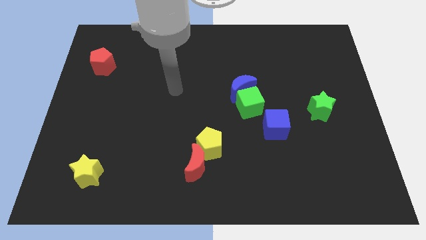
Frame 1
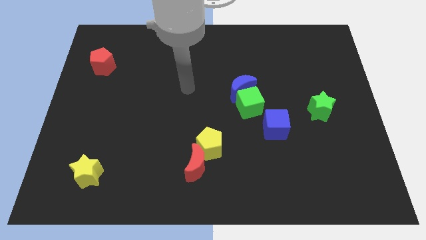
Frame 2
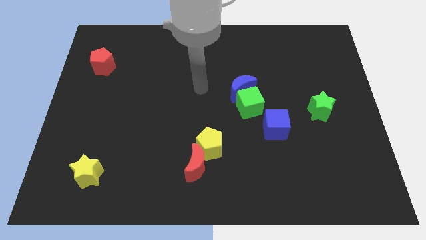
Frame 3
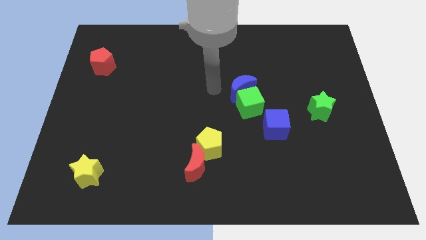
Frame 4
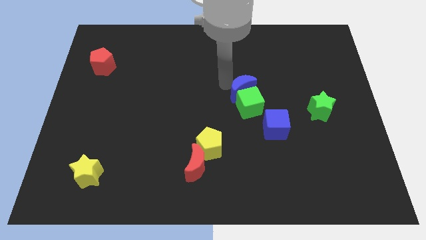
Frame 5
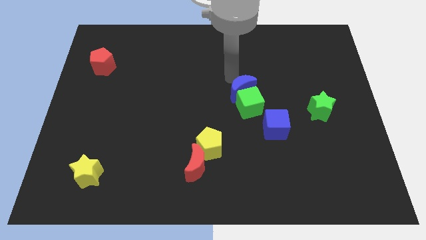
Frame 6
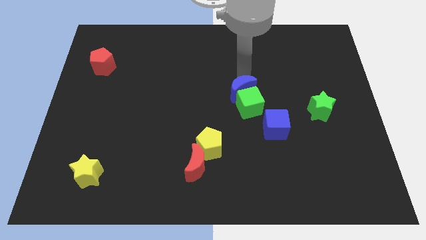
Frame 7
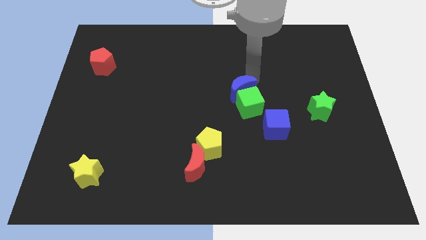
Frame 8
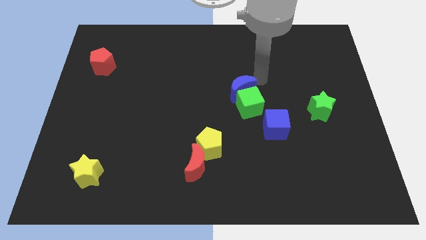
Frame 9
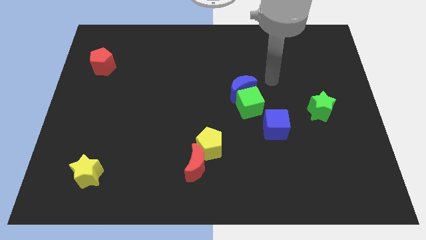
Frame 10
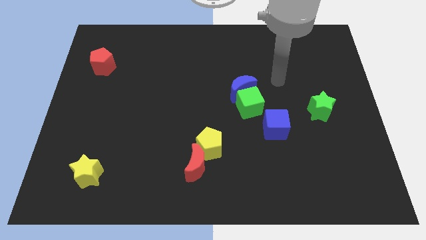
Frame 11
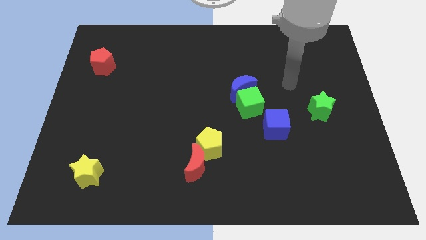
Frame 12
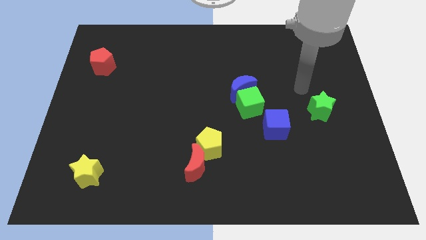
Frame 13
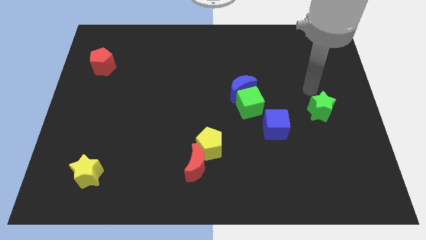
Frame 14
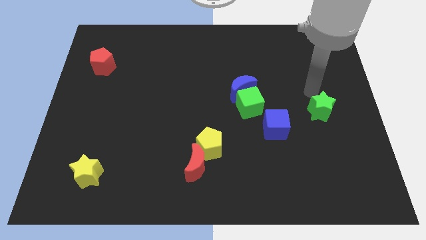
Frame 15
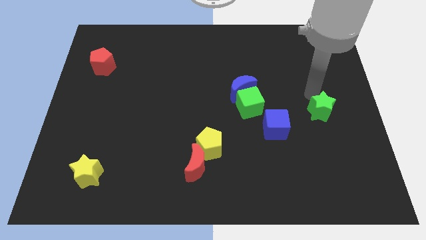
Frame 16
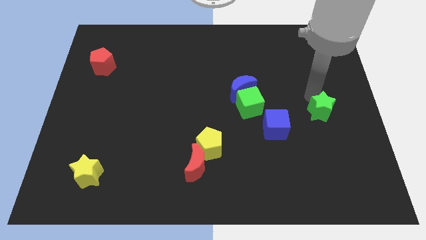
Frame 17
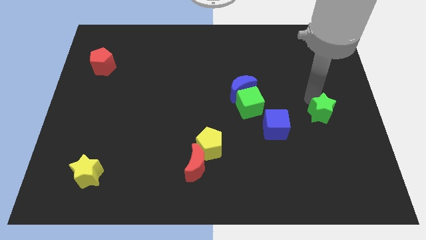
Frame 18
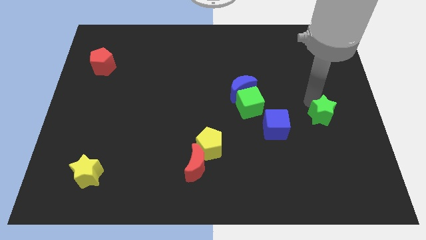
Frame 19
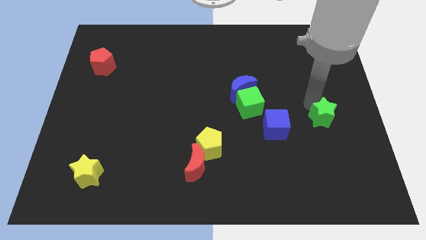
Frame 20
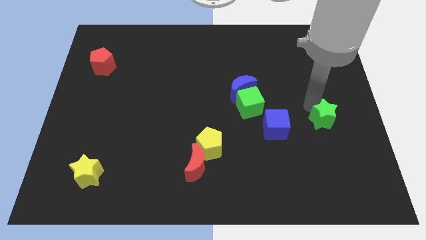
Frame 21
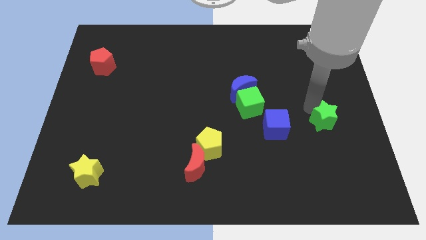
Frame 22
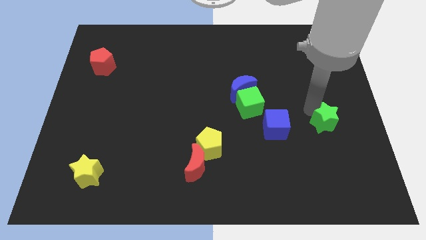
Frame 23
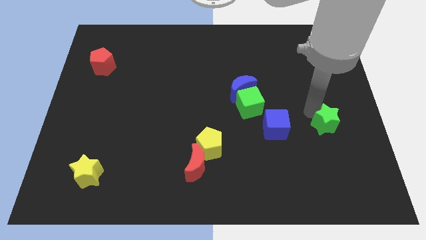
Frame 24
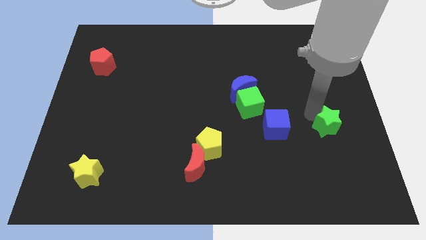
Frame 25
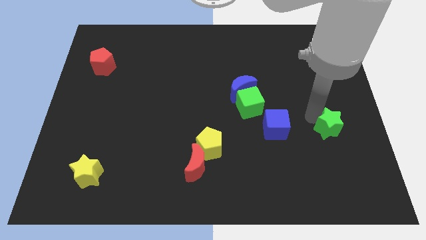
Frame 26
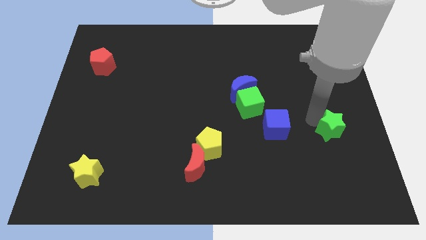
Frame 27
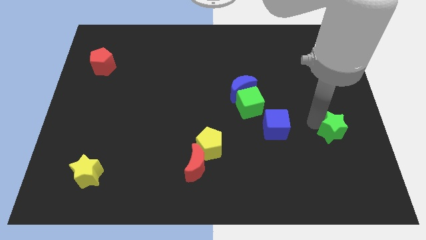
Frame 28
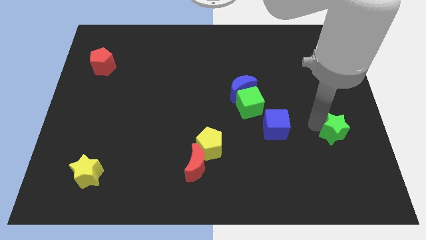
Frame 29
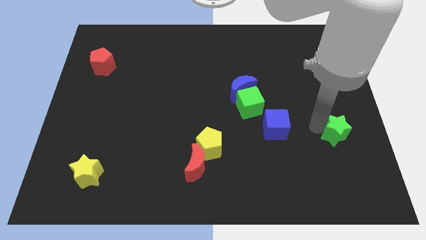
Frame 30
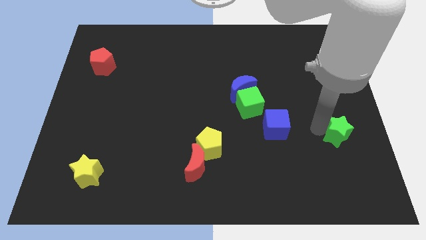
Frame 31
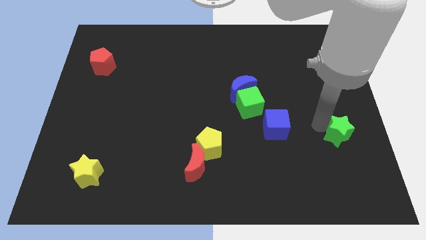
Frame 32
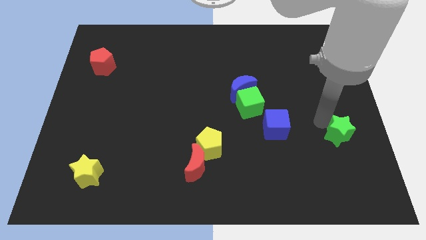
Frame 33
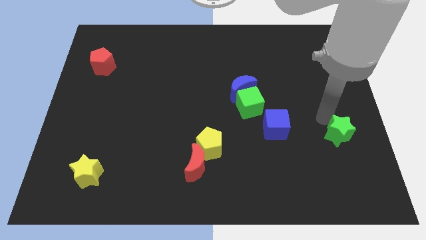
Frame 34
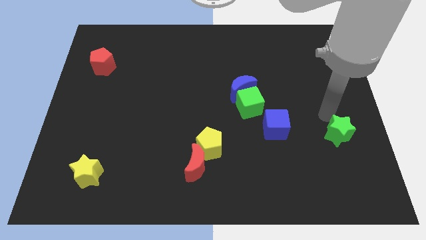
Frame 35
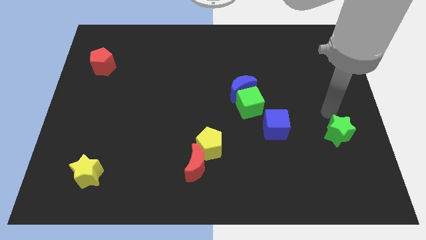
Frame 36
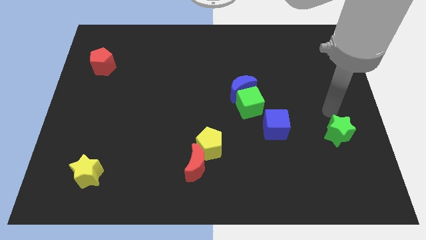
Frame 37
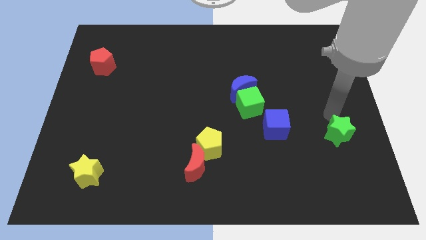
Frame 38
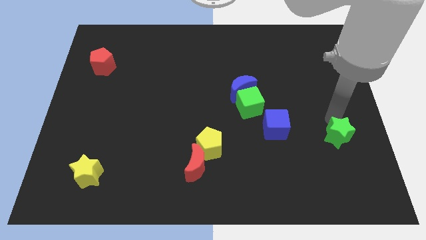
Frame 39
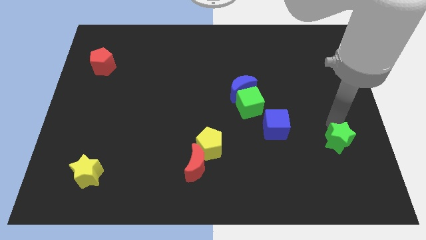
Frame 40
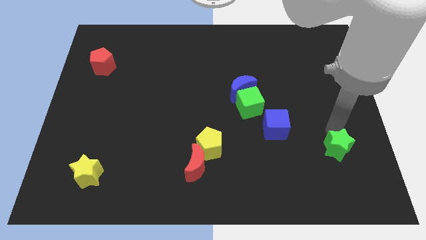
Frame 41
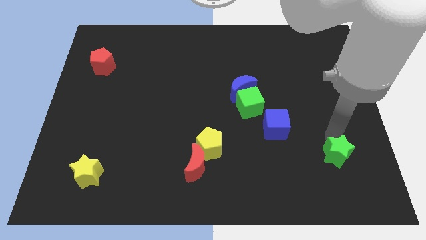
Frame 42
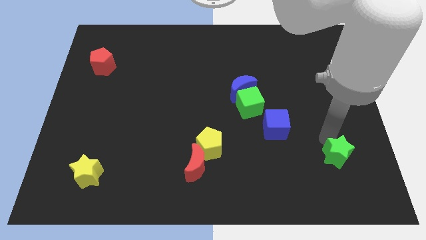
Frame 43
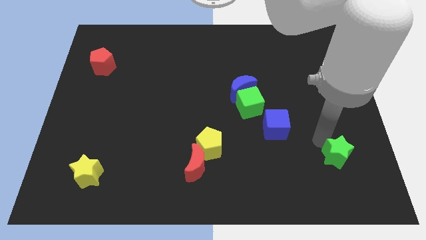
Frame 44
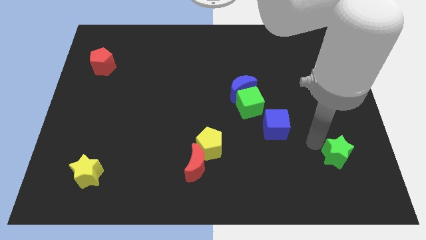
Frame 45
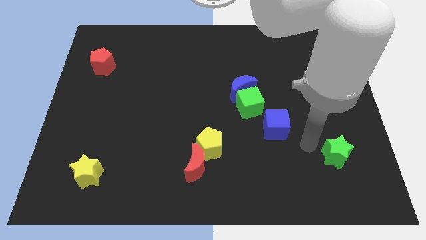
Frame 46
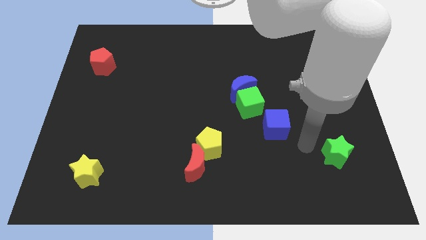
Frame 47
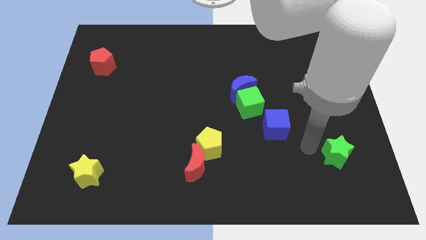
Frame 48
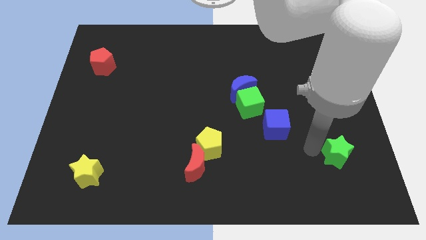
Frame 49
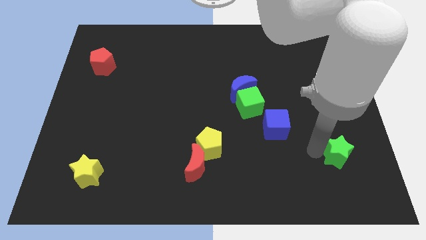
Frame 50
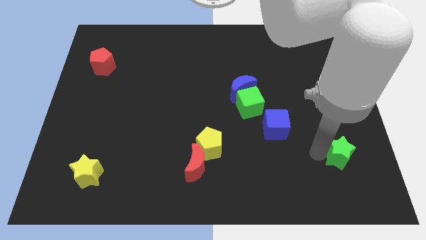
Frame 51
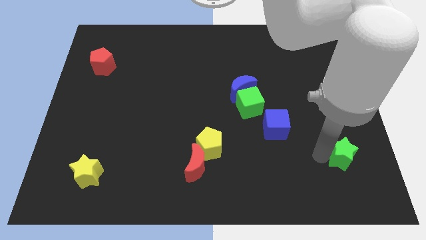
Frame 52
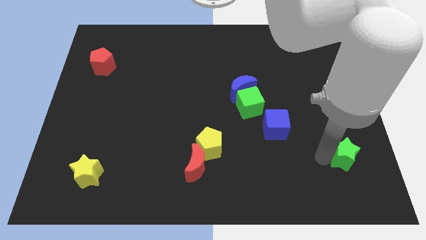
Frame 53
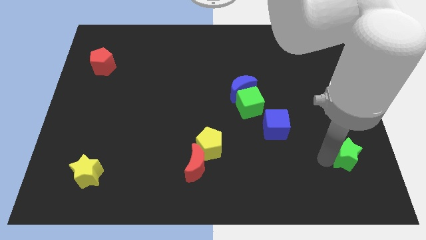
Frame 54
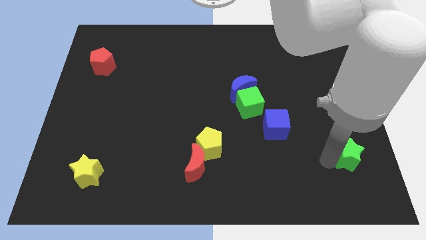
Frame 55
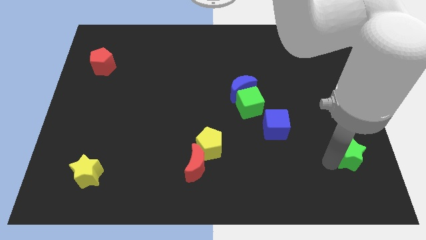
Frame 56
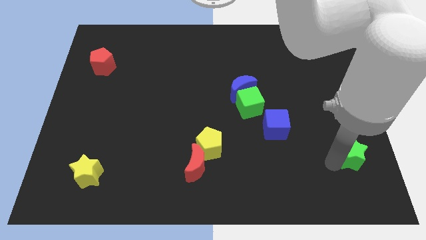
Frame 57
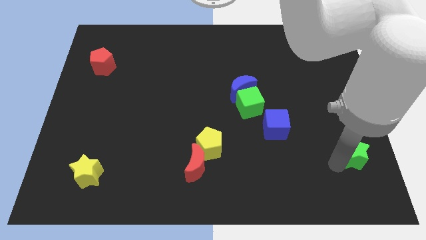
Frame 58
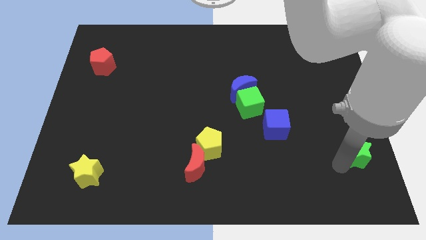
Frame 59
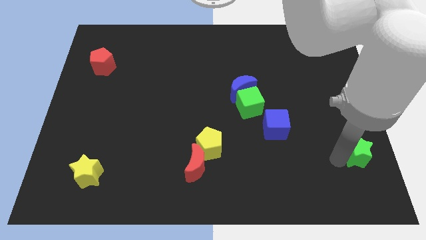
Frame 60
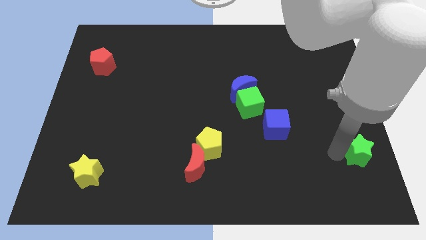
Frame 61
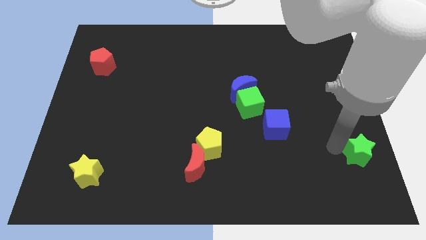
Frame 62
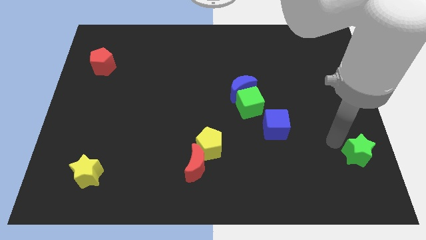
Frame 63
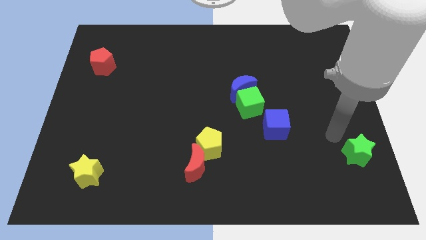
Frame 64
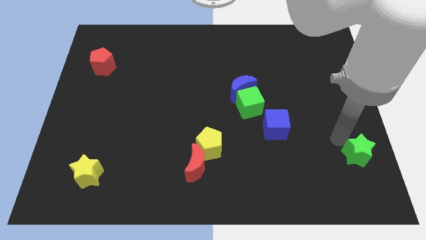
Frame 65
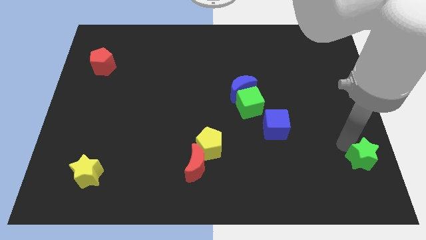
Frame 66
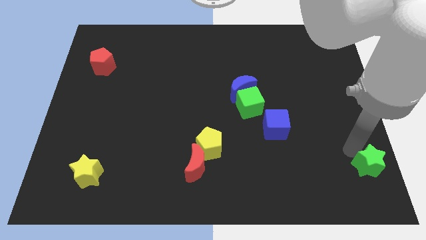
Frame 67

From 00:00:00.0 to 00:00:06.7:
slide the green star to the bottom right of the board

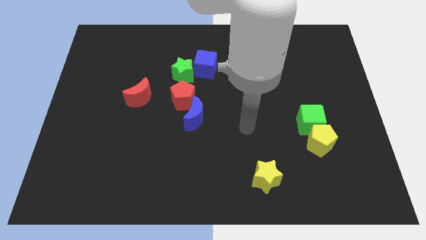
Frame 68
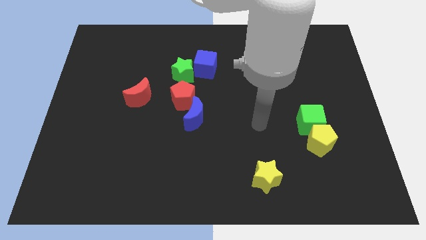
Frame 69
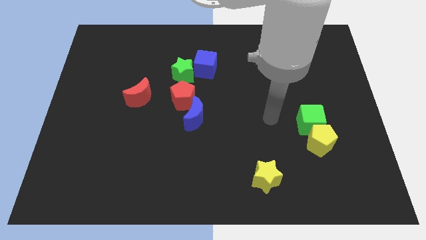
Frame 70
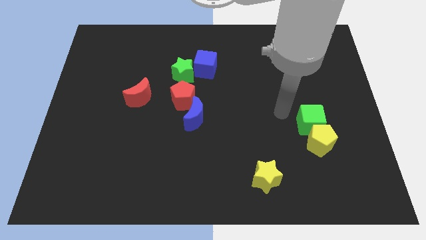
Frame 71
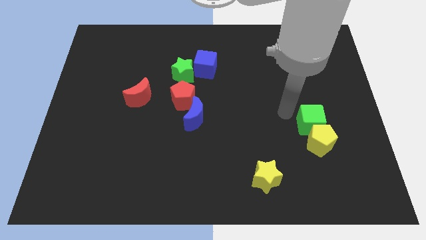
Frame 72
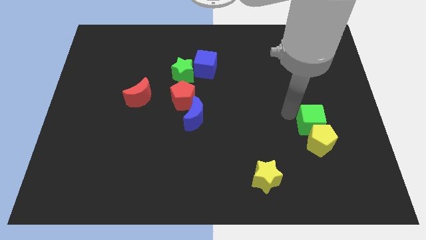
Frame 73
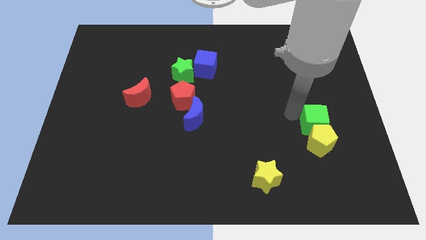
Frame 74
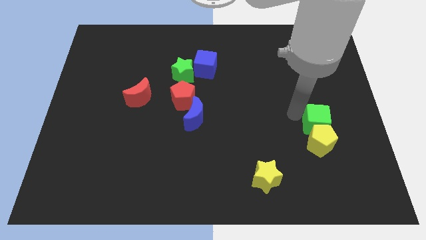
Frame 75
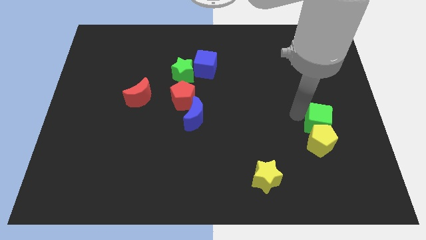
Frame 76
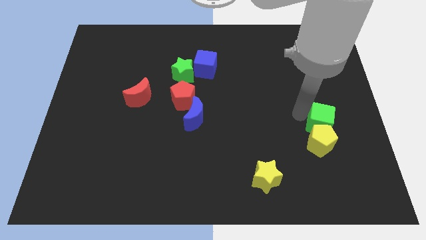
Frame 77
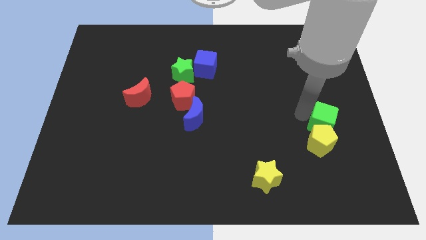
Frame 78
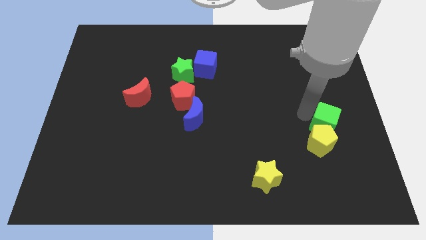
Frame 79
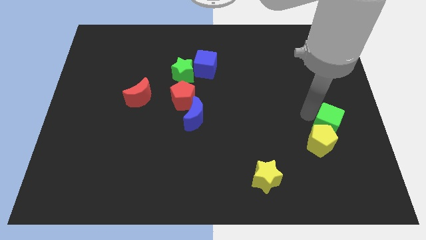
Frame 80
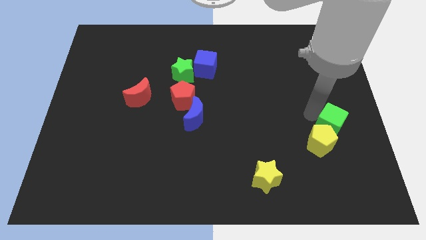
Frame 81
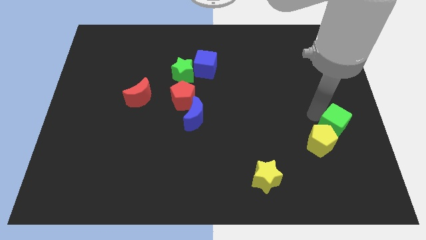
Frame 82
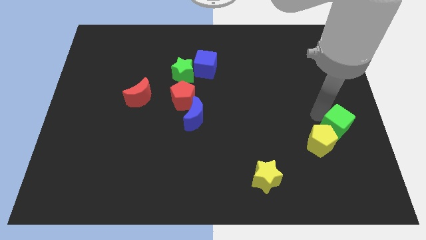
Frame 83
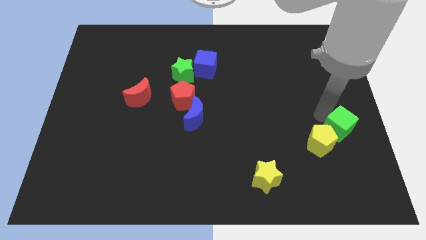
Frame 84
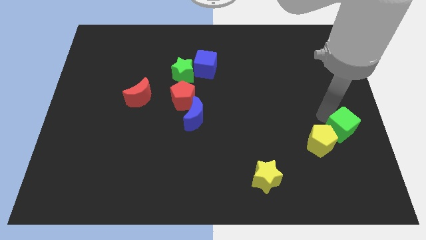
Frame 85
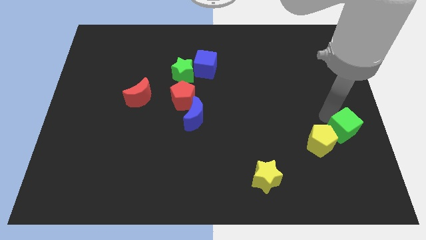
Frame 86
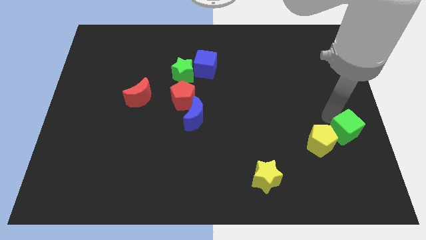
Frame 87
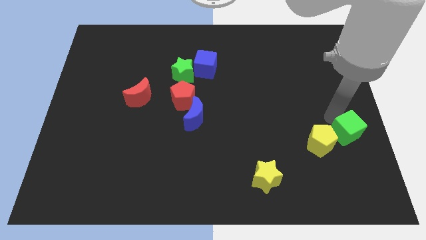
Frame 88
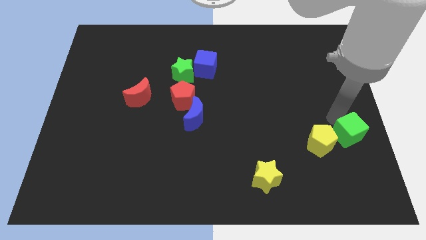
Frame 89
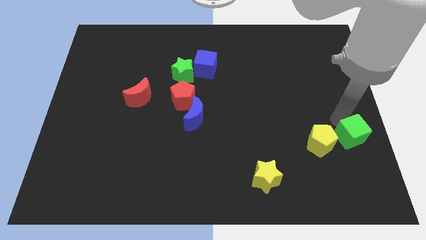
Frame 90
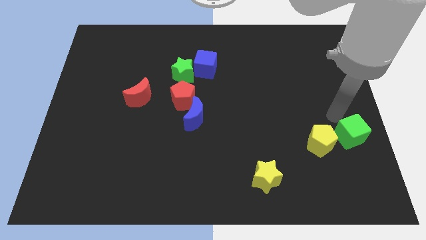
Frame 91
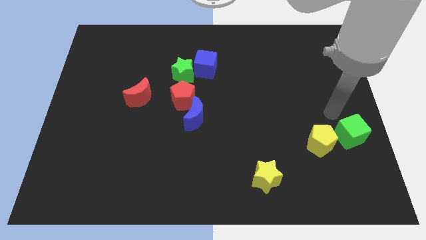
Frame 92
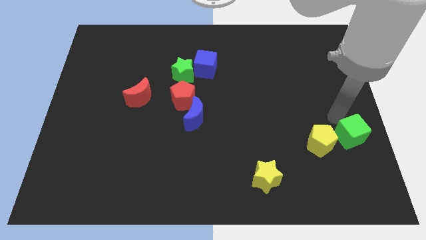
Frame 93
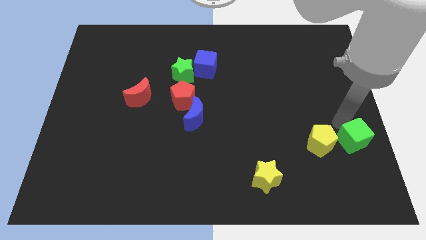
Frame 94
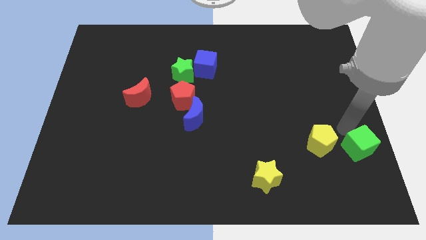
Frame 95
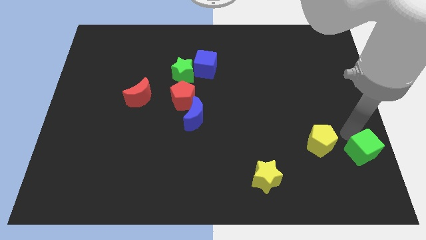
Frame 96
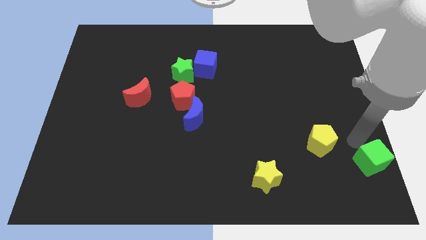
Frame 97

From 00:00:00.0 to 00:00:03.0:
push the green cube to the bottom right of the board
